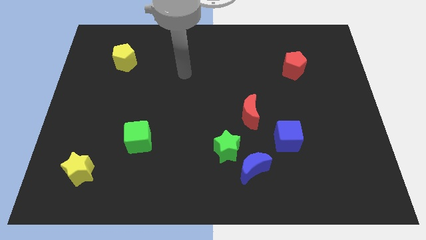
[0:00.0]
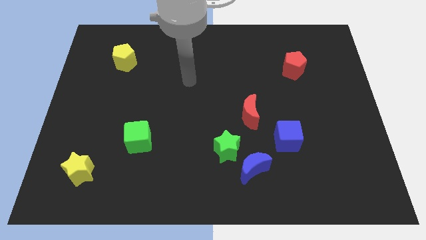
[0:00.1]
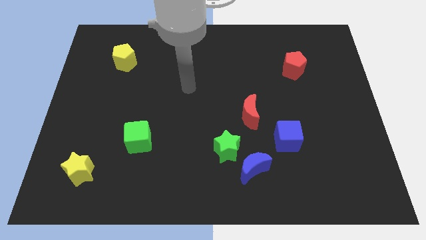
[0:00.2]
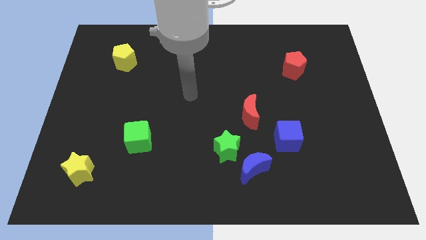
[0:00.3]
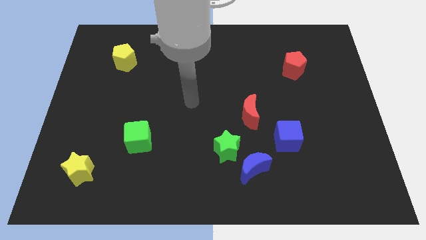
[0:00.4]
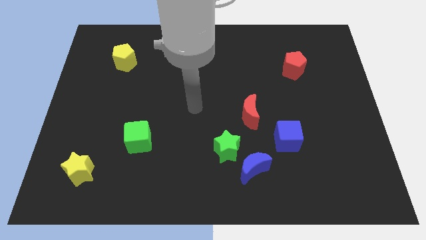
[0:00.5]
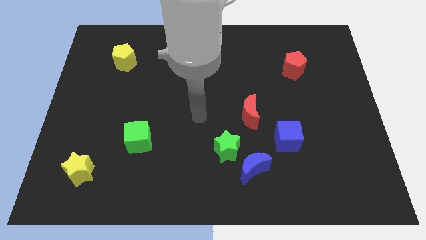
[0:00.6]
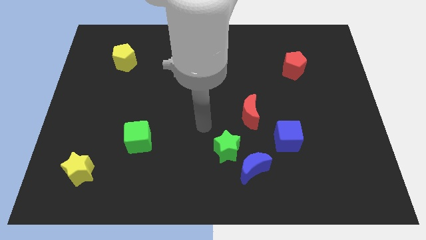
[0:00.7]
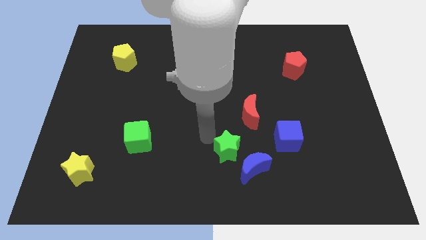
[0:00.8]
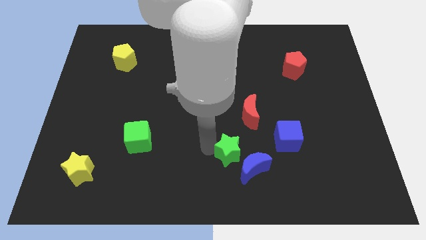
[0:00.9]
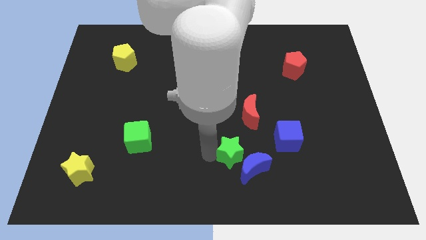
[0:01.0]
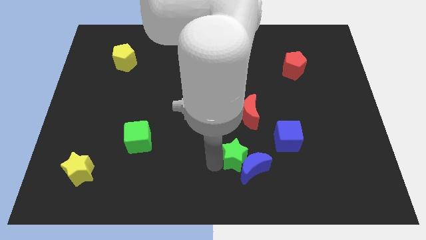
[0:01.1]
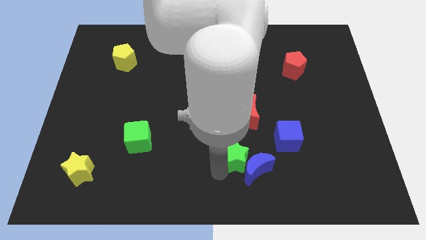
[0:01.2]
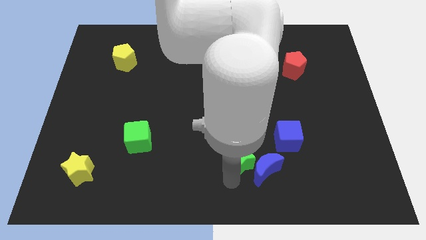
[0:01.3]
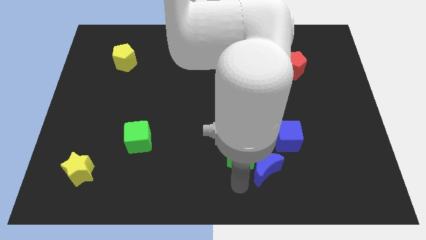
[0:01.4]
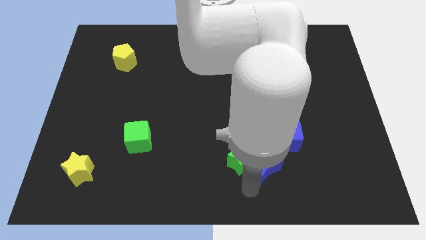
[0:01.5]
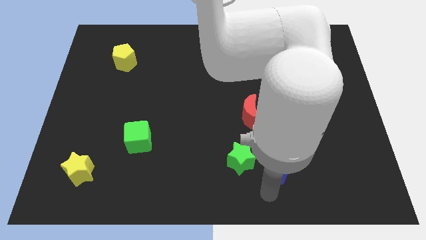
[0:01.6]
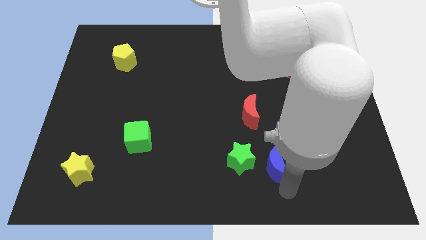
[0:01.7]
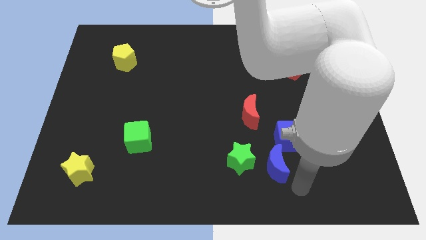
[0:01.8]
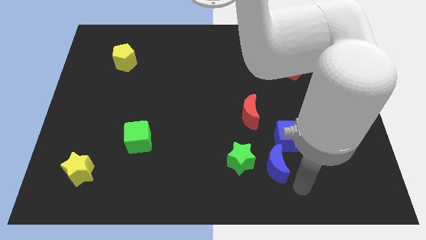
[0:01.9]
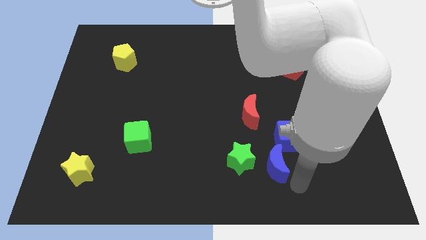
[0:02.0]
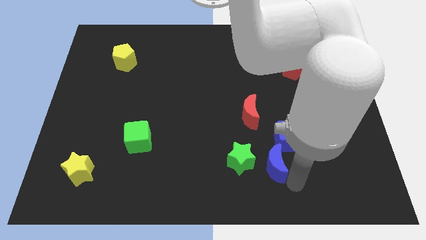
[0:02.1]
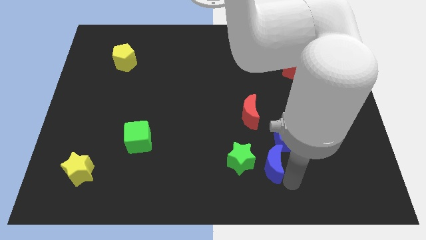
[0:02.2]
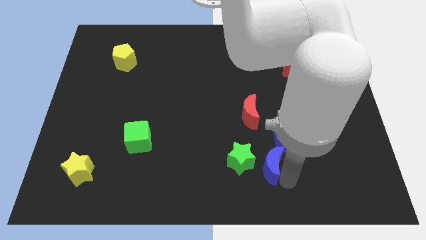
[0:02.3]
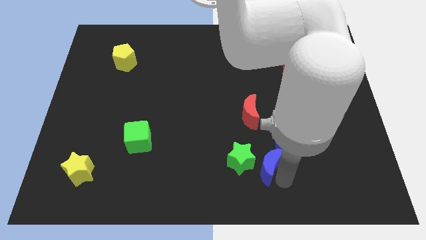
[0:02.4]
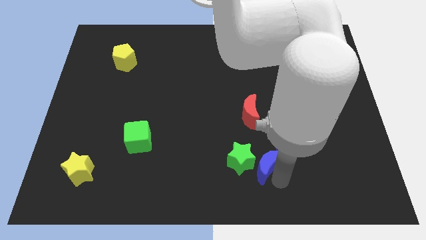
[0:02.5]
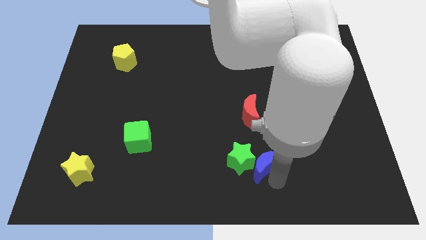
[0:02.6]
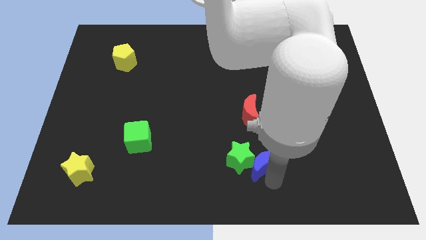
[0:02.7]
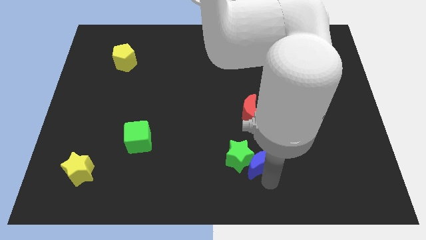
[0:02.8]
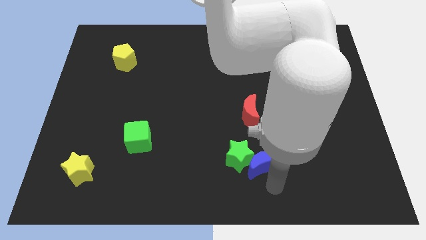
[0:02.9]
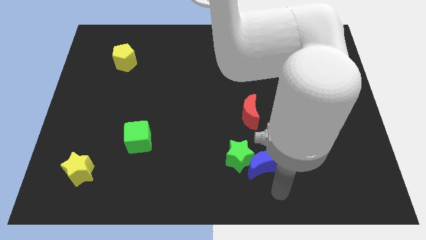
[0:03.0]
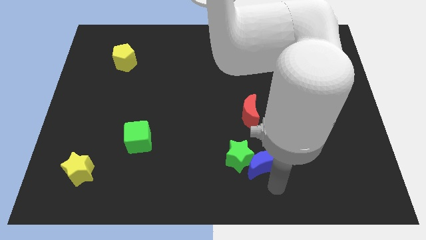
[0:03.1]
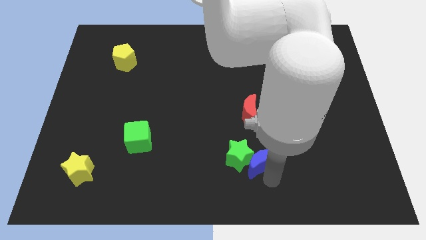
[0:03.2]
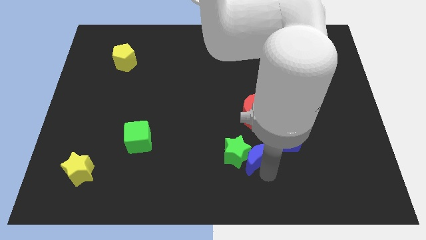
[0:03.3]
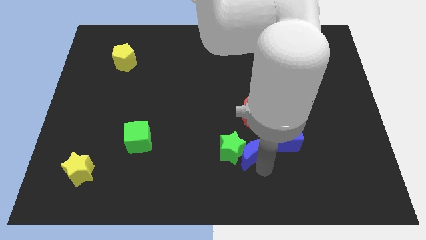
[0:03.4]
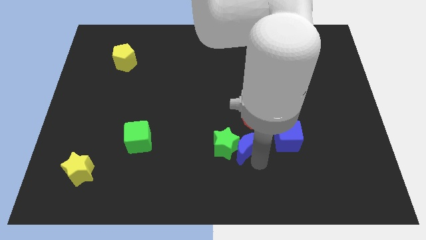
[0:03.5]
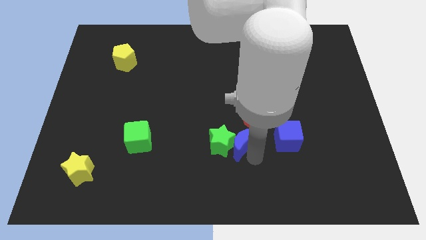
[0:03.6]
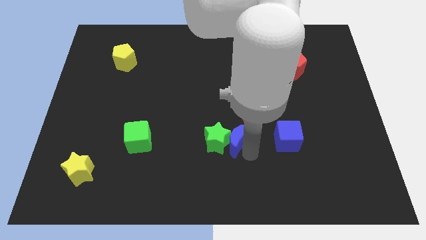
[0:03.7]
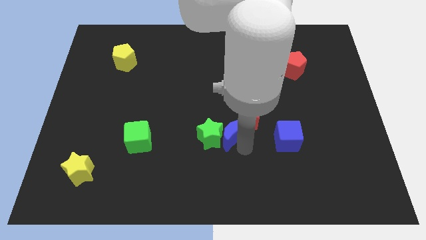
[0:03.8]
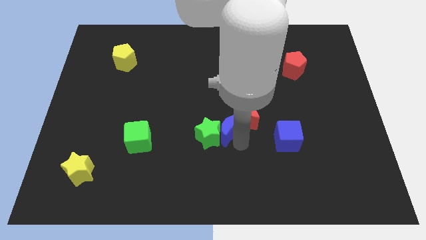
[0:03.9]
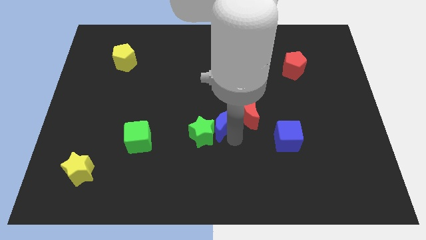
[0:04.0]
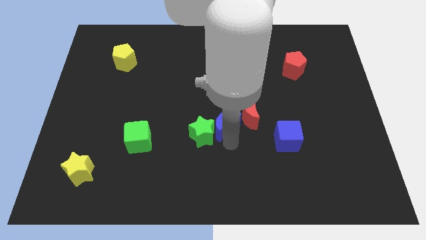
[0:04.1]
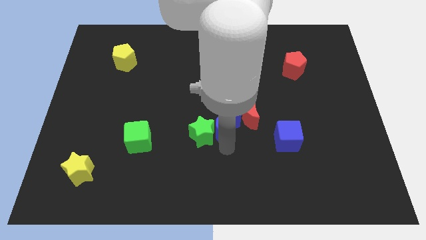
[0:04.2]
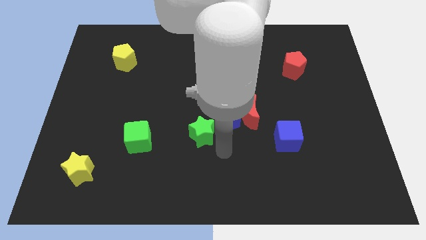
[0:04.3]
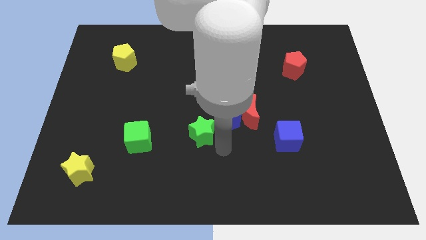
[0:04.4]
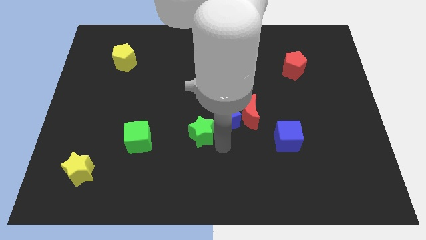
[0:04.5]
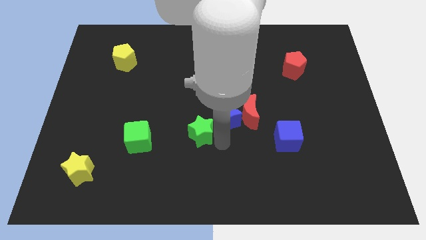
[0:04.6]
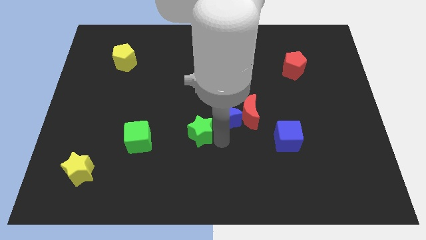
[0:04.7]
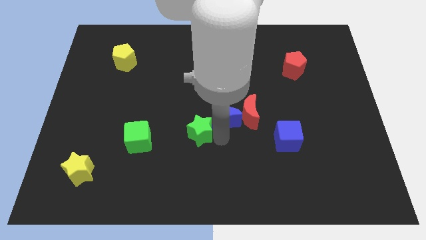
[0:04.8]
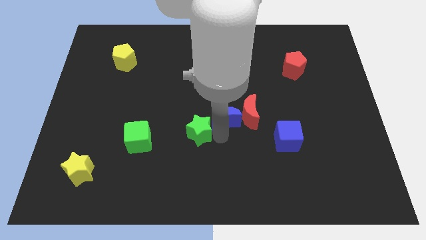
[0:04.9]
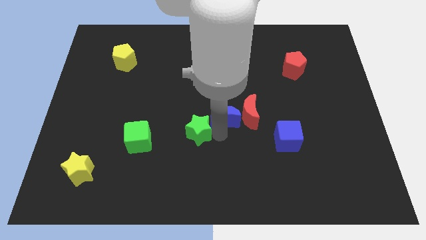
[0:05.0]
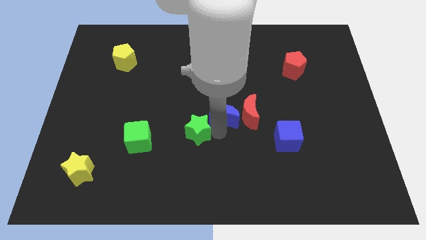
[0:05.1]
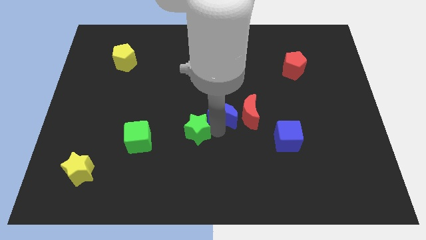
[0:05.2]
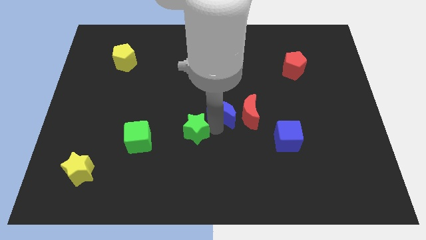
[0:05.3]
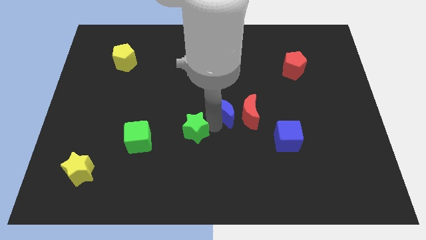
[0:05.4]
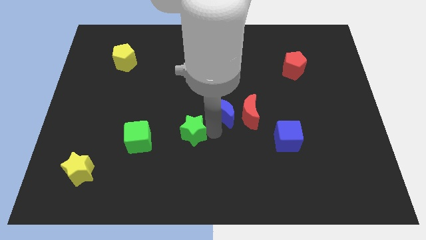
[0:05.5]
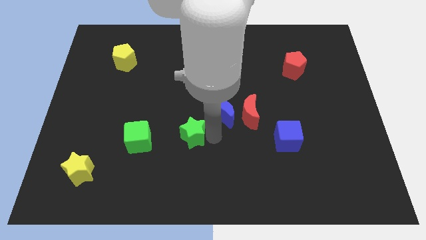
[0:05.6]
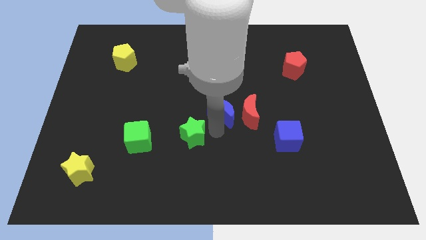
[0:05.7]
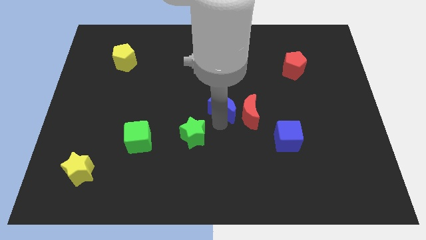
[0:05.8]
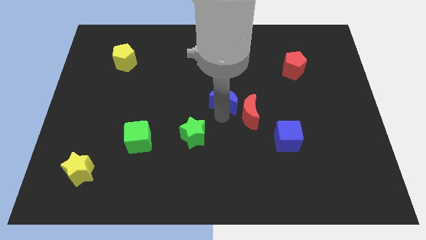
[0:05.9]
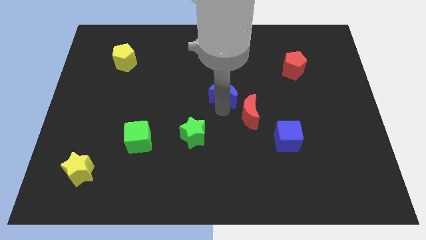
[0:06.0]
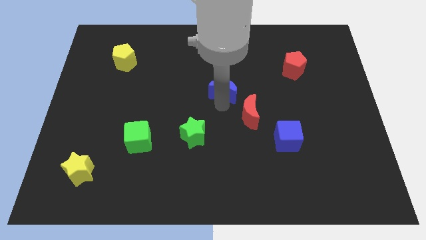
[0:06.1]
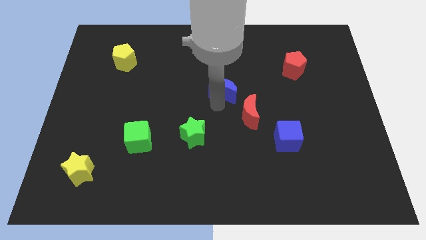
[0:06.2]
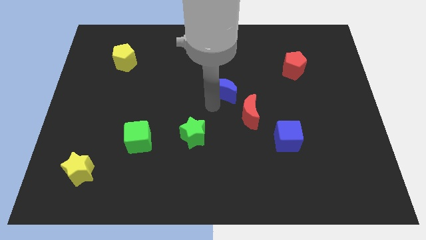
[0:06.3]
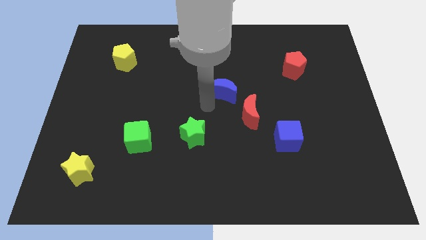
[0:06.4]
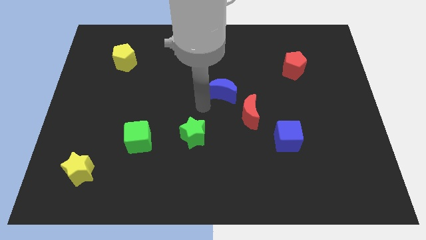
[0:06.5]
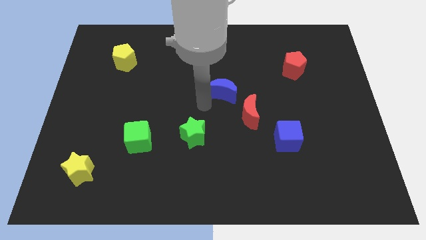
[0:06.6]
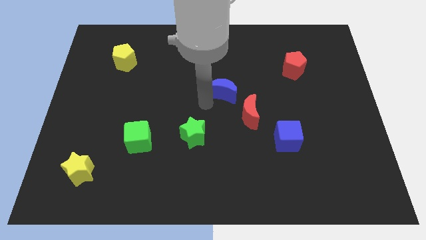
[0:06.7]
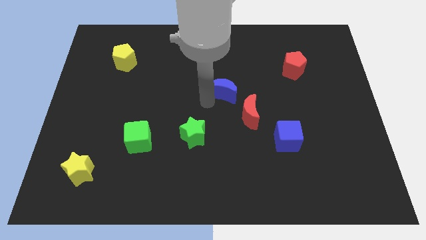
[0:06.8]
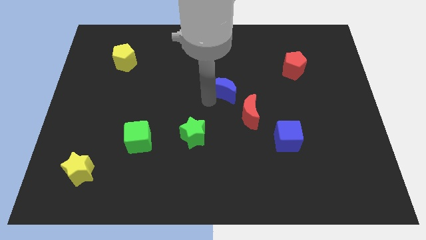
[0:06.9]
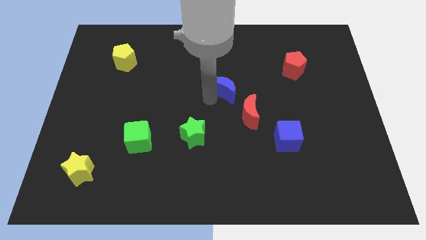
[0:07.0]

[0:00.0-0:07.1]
slide the blue moon upwards

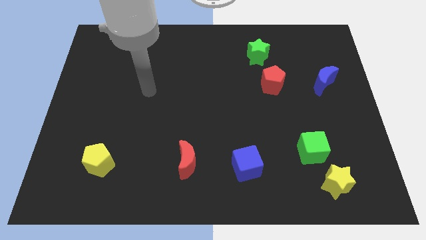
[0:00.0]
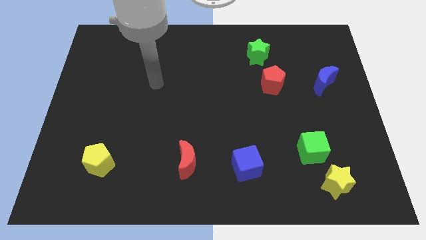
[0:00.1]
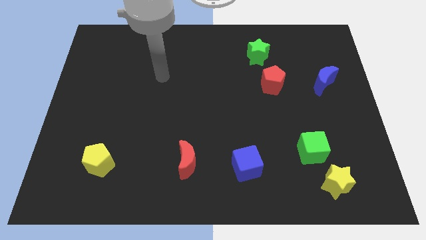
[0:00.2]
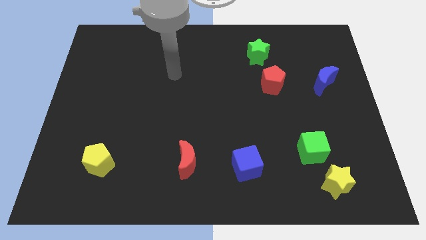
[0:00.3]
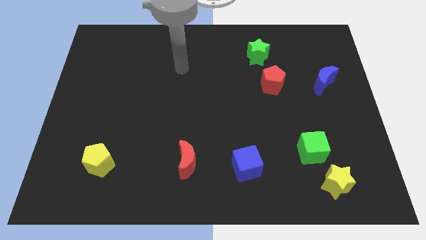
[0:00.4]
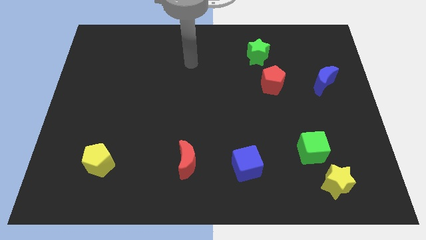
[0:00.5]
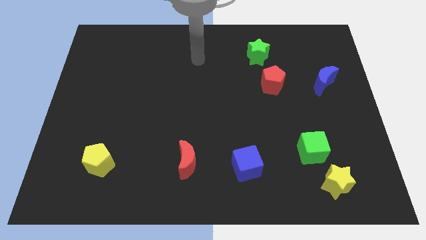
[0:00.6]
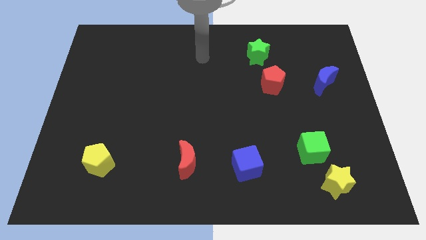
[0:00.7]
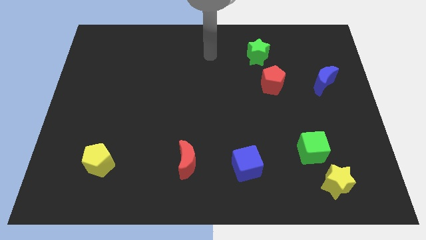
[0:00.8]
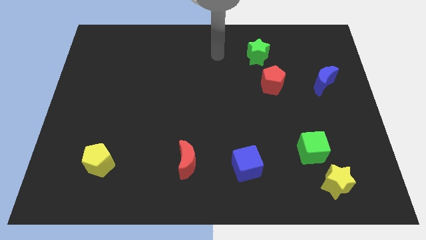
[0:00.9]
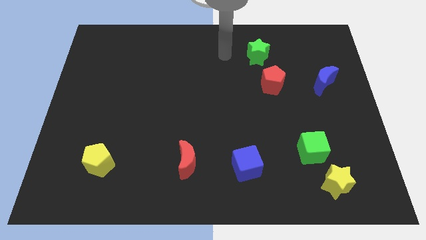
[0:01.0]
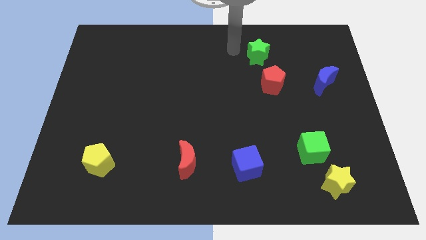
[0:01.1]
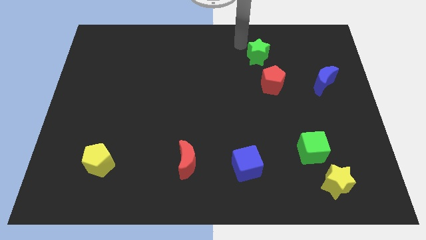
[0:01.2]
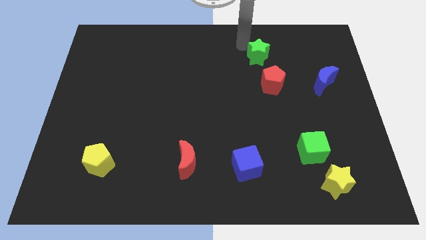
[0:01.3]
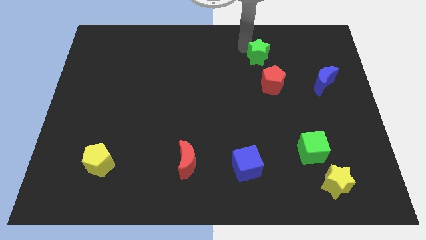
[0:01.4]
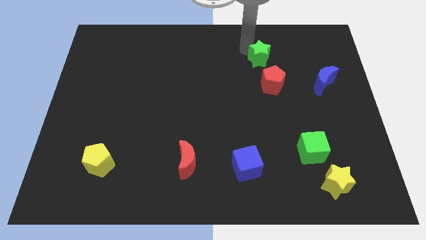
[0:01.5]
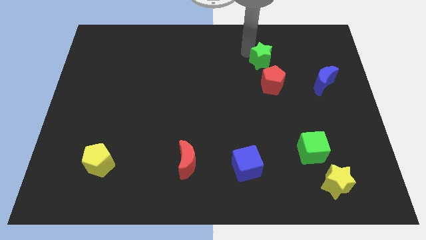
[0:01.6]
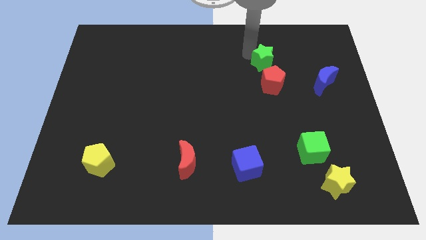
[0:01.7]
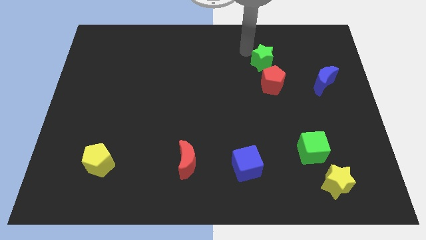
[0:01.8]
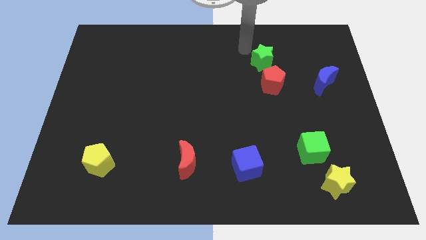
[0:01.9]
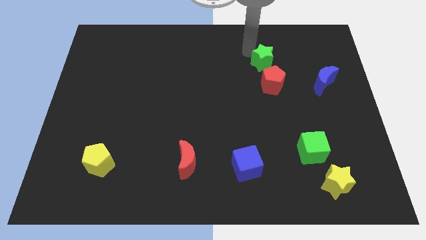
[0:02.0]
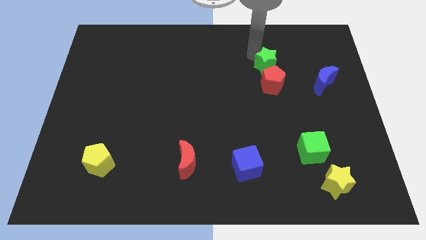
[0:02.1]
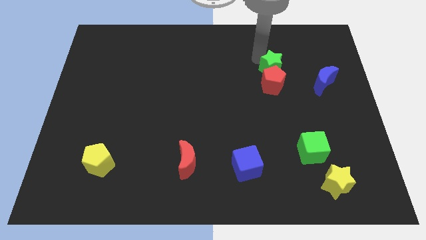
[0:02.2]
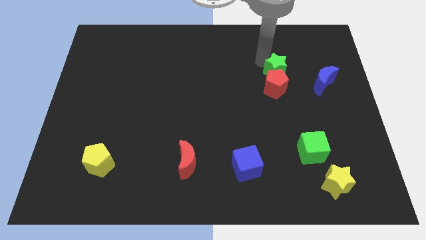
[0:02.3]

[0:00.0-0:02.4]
push the green star somewhat diagonally downwards and to the right
